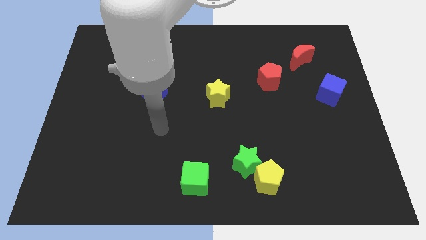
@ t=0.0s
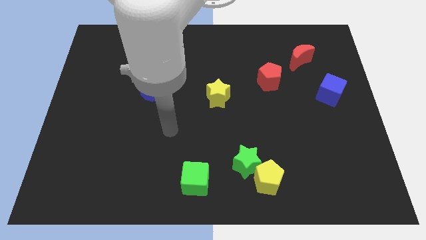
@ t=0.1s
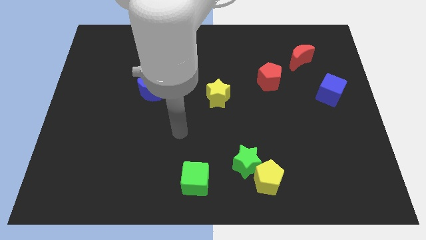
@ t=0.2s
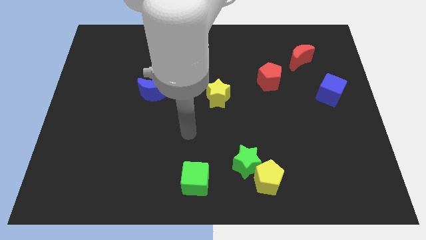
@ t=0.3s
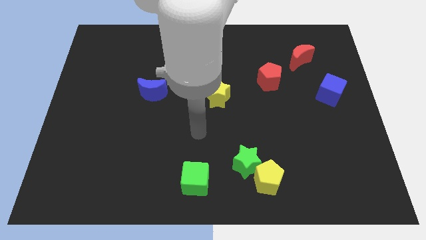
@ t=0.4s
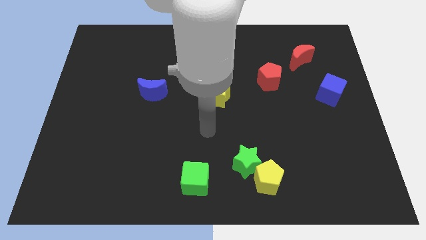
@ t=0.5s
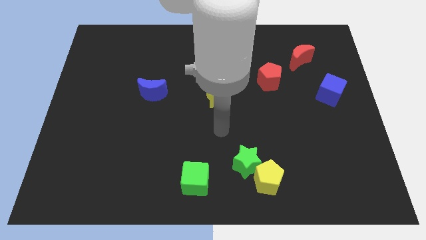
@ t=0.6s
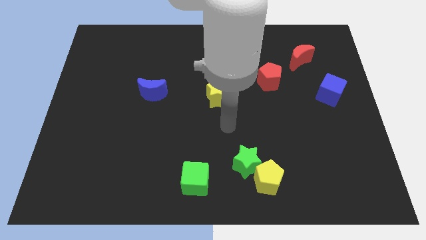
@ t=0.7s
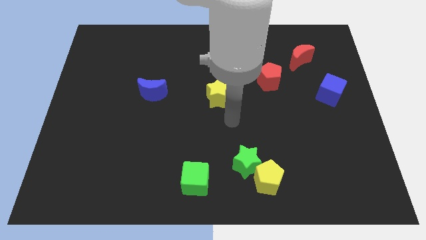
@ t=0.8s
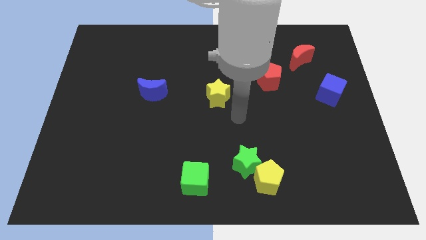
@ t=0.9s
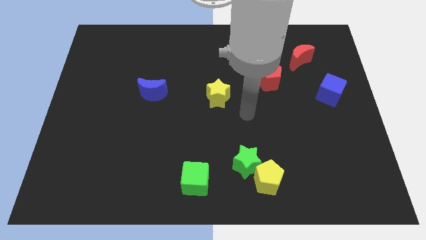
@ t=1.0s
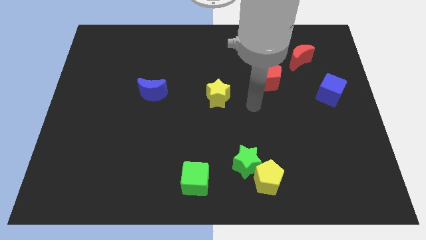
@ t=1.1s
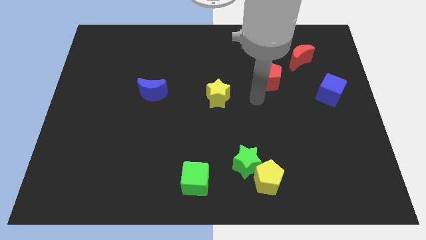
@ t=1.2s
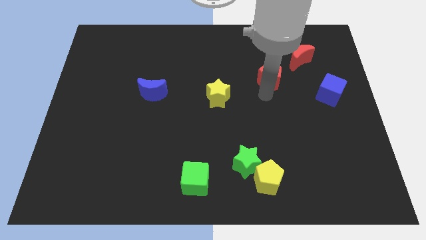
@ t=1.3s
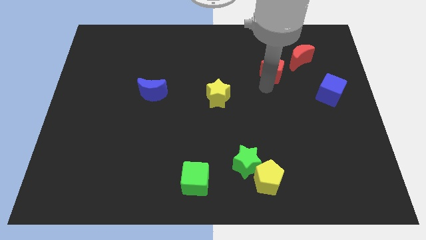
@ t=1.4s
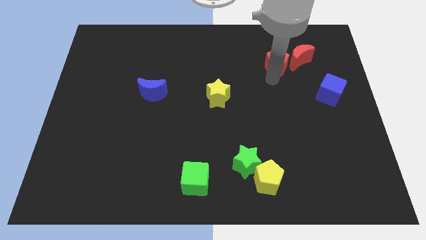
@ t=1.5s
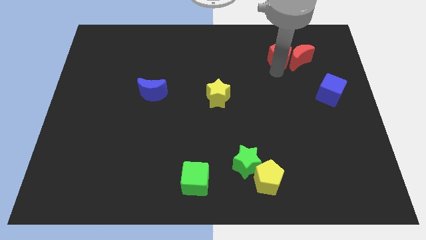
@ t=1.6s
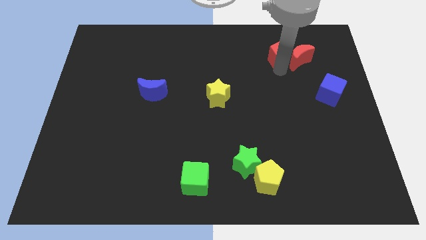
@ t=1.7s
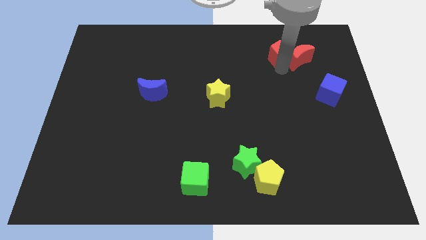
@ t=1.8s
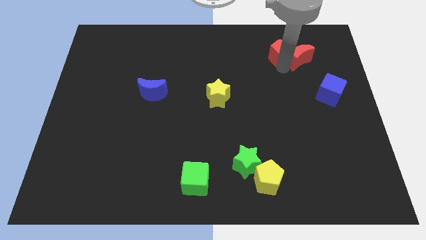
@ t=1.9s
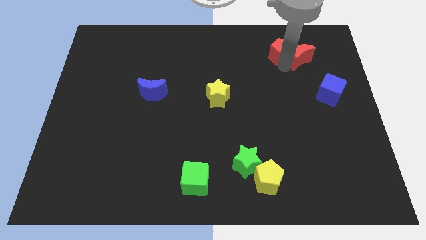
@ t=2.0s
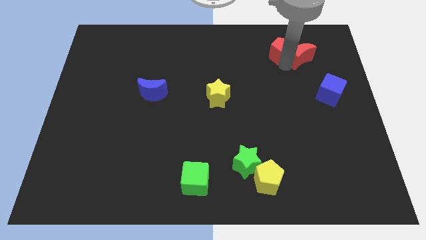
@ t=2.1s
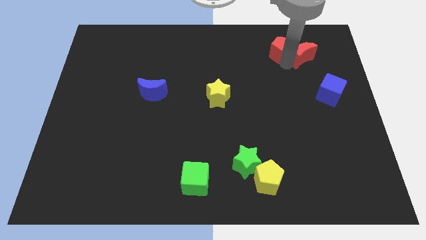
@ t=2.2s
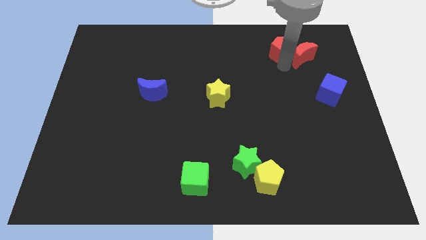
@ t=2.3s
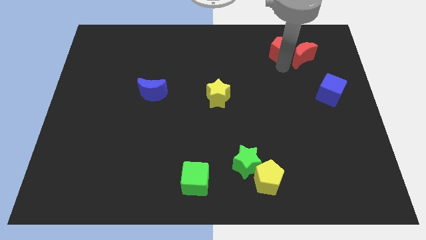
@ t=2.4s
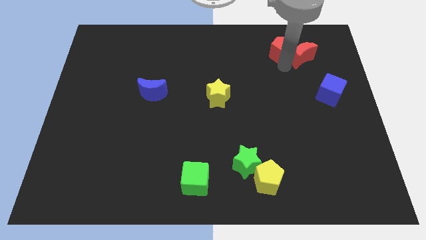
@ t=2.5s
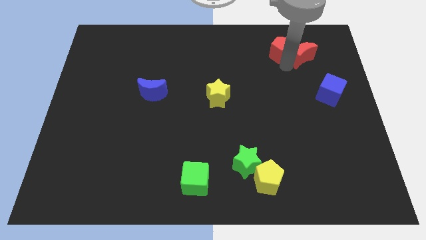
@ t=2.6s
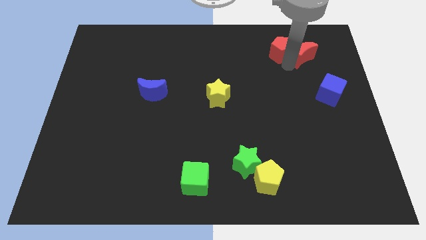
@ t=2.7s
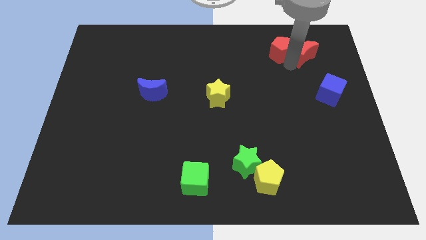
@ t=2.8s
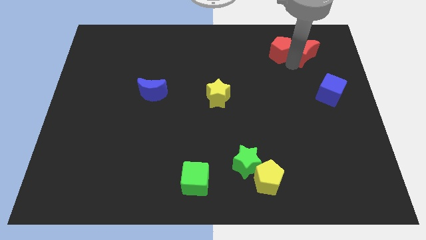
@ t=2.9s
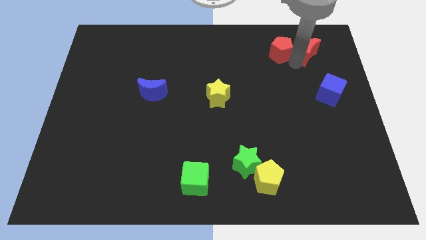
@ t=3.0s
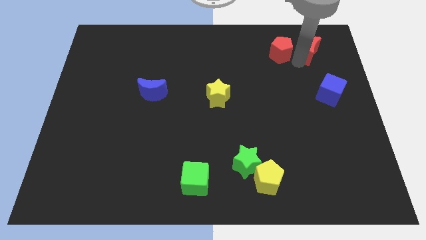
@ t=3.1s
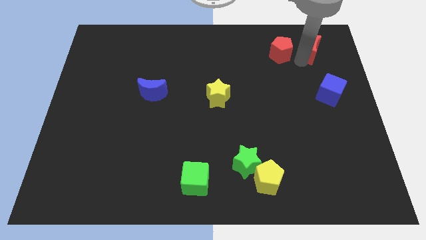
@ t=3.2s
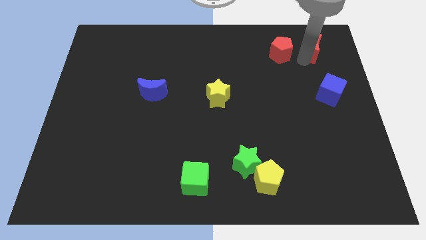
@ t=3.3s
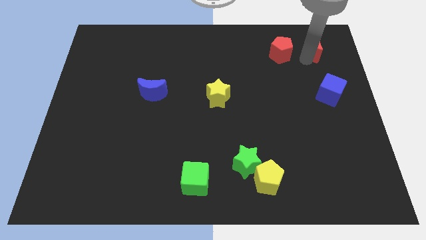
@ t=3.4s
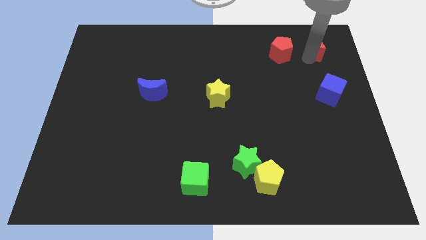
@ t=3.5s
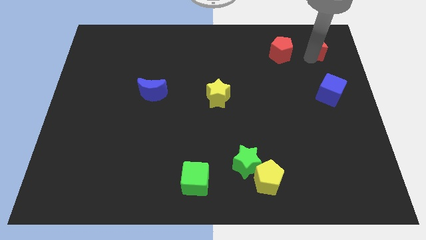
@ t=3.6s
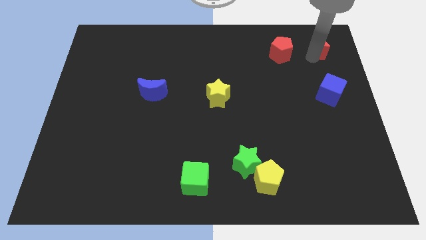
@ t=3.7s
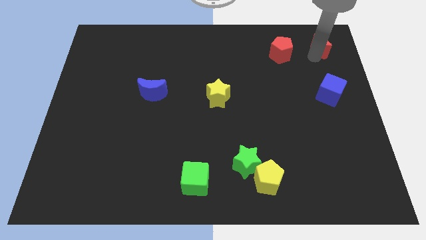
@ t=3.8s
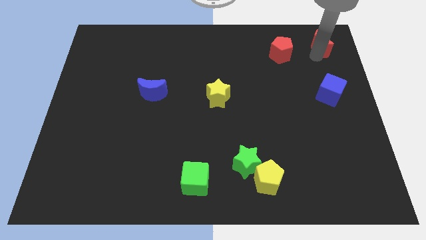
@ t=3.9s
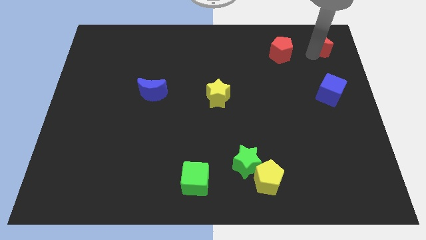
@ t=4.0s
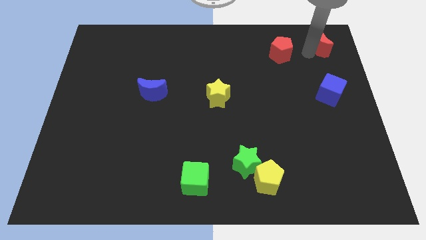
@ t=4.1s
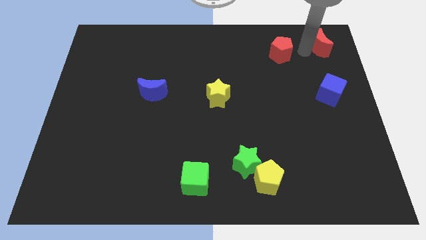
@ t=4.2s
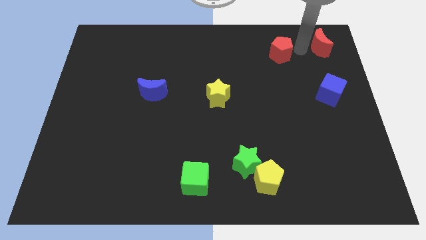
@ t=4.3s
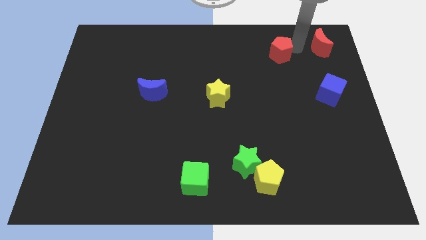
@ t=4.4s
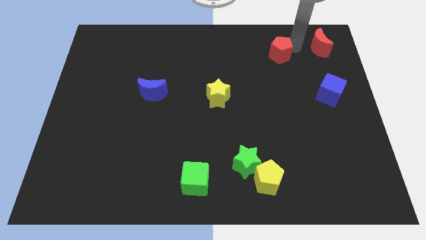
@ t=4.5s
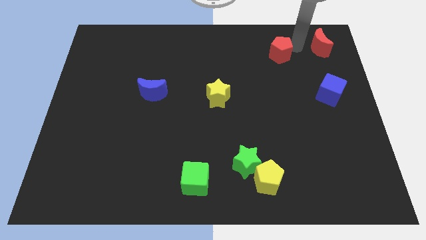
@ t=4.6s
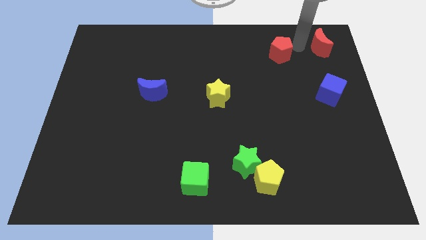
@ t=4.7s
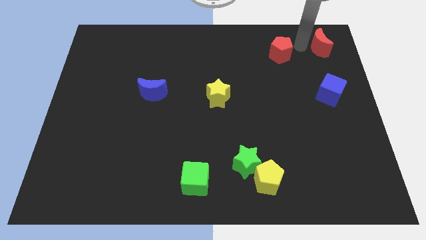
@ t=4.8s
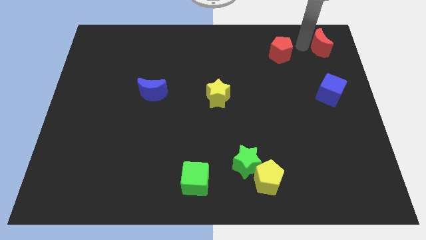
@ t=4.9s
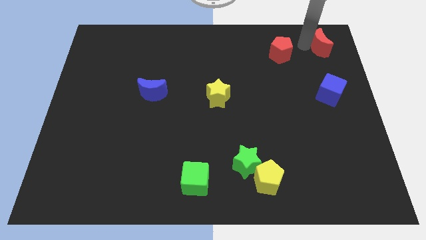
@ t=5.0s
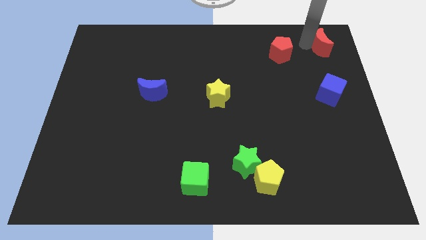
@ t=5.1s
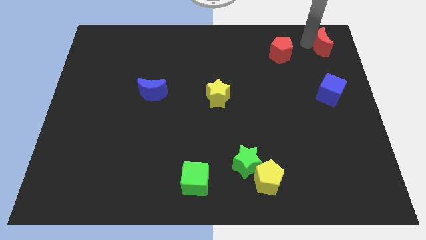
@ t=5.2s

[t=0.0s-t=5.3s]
move the red moon to the upper right corner

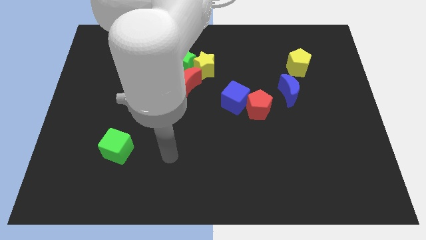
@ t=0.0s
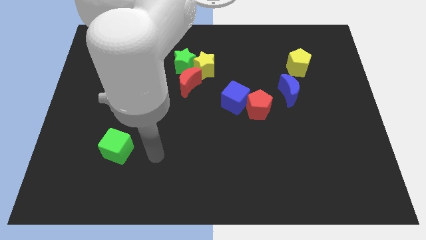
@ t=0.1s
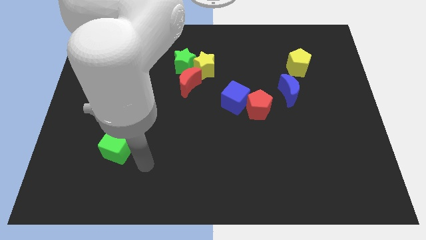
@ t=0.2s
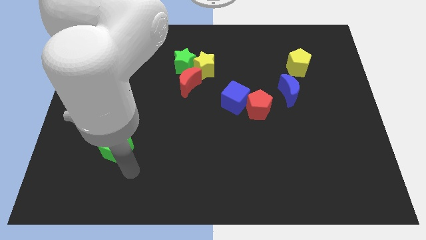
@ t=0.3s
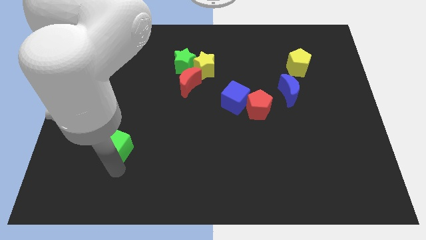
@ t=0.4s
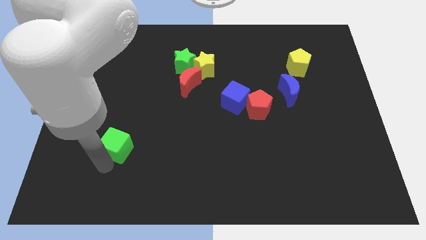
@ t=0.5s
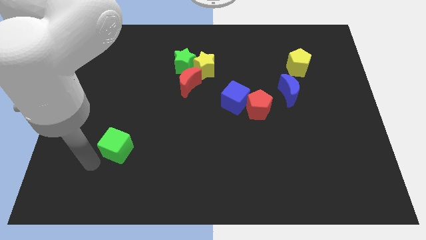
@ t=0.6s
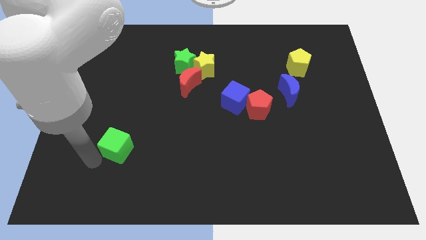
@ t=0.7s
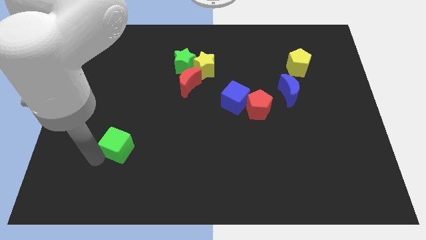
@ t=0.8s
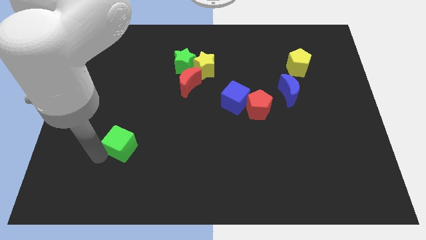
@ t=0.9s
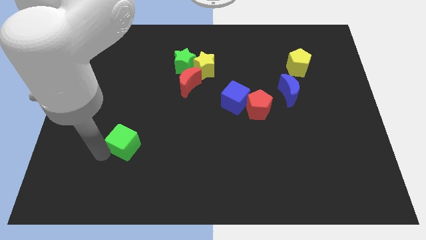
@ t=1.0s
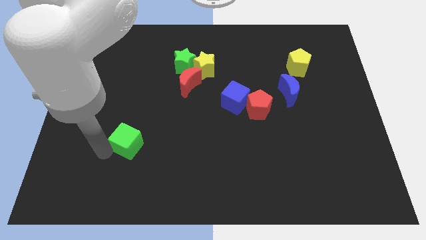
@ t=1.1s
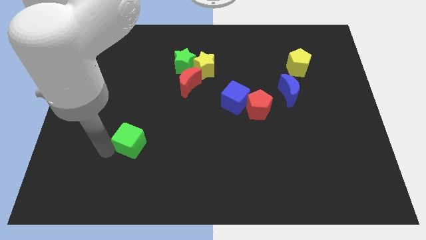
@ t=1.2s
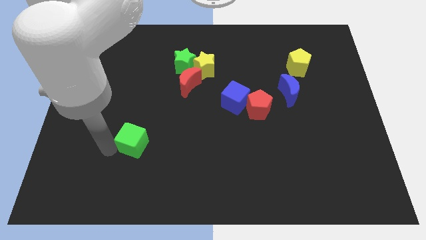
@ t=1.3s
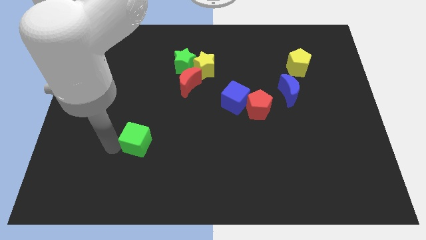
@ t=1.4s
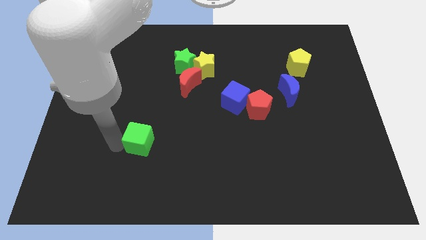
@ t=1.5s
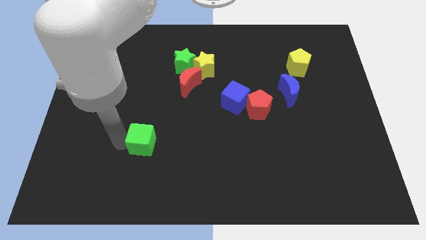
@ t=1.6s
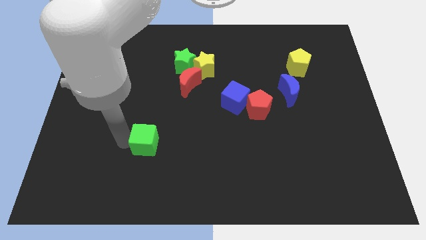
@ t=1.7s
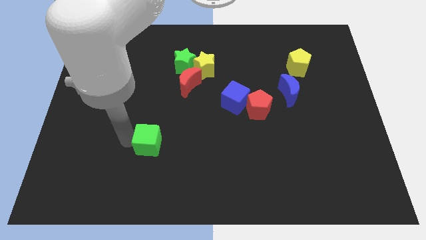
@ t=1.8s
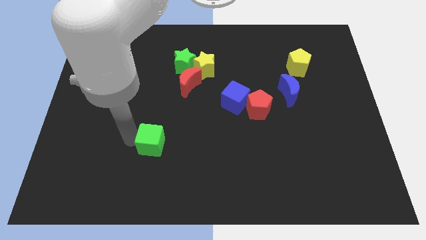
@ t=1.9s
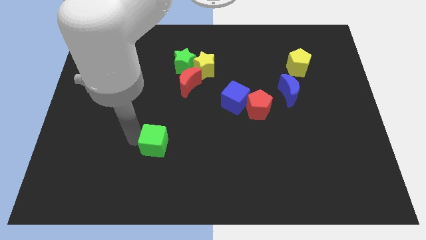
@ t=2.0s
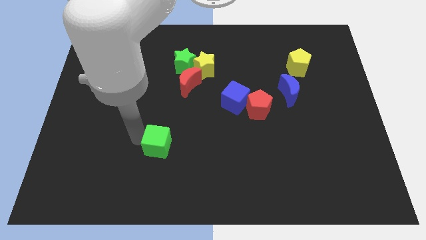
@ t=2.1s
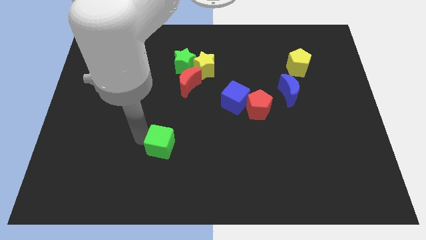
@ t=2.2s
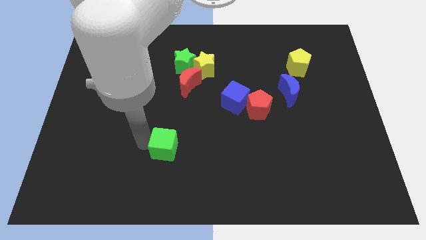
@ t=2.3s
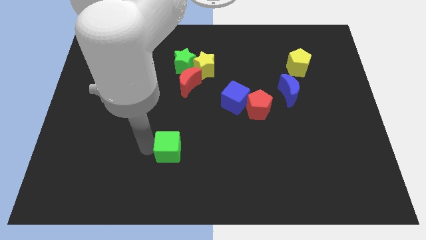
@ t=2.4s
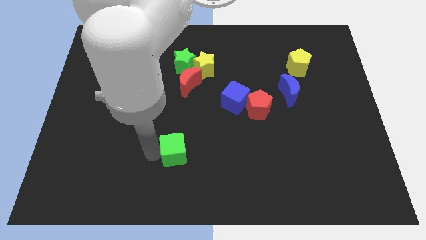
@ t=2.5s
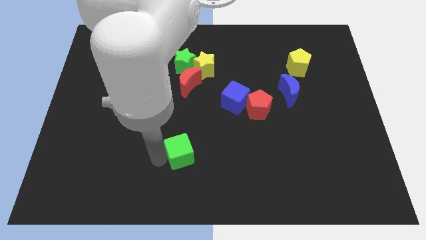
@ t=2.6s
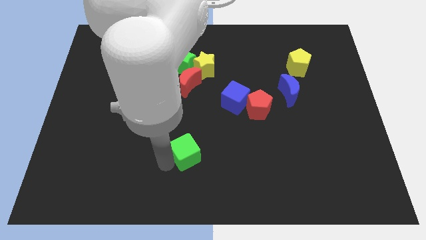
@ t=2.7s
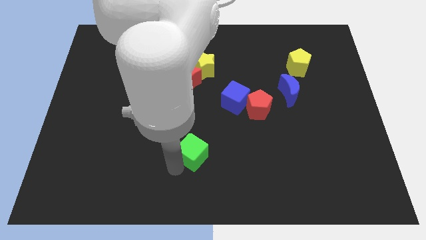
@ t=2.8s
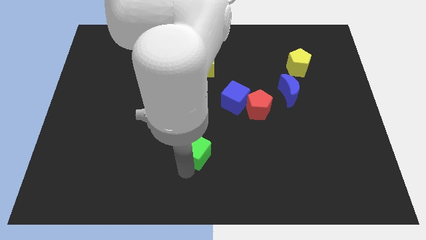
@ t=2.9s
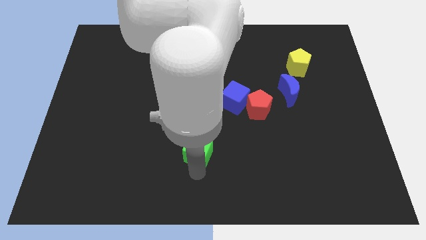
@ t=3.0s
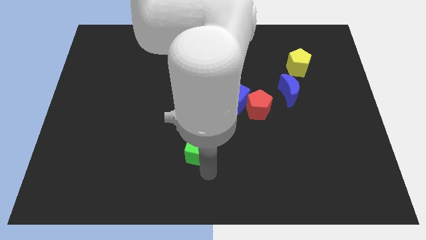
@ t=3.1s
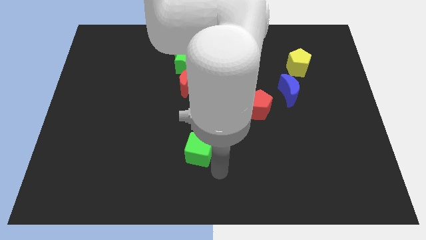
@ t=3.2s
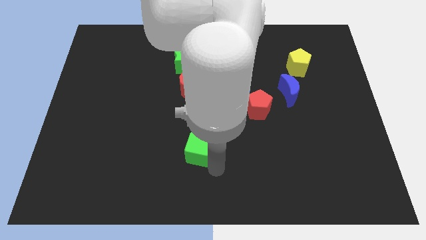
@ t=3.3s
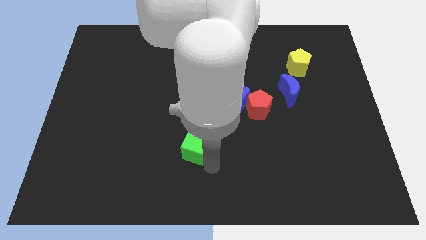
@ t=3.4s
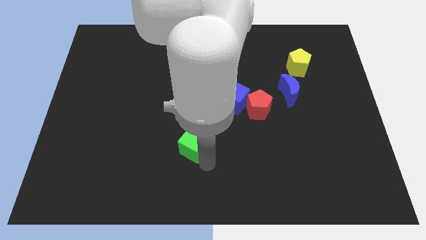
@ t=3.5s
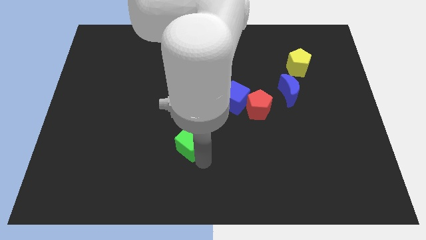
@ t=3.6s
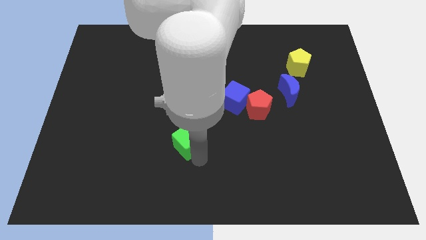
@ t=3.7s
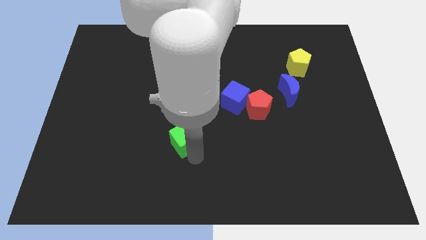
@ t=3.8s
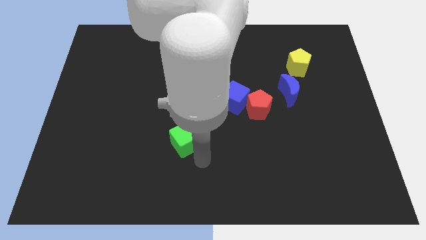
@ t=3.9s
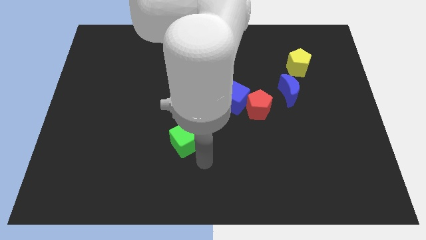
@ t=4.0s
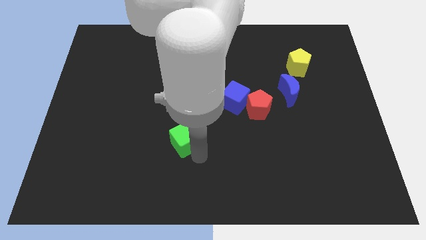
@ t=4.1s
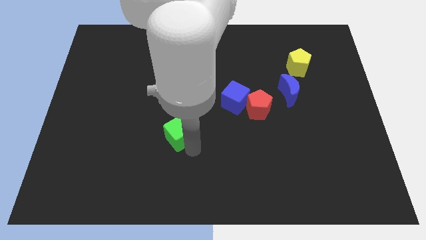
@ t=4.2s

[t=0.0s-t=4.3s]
push the green cube to the middle of the board
